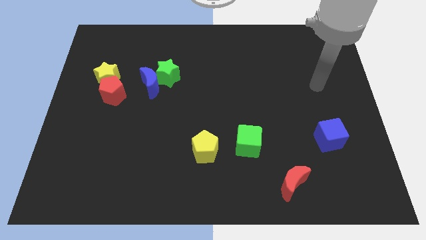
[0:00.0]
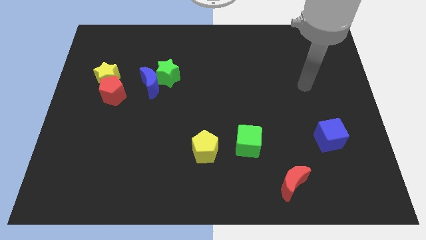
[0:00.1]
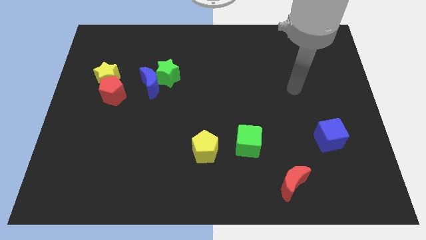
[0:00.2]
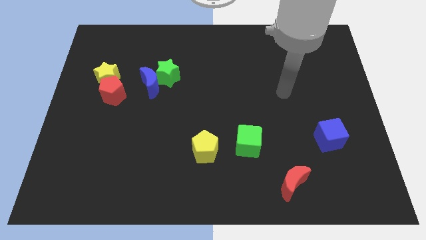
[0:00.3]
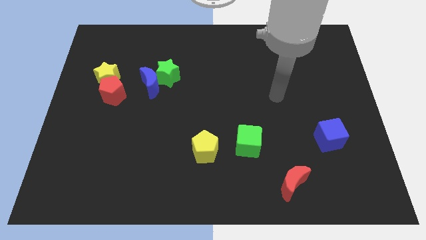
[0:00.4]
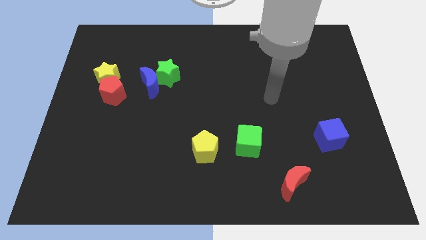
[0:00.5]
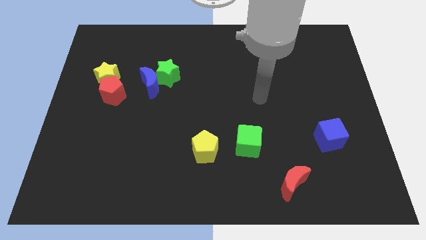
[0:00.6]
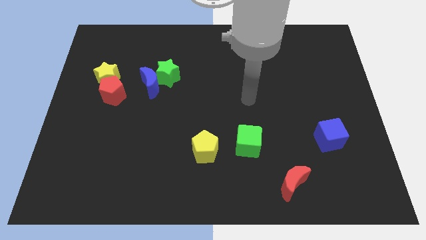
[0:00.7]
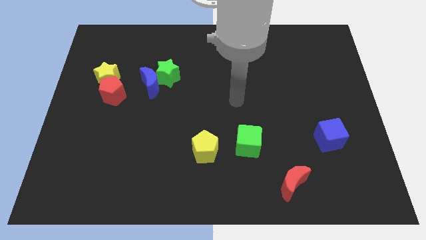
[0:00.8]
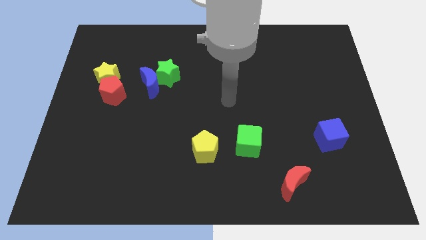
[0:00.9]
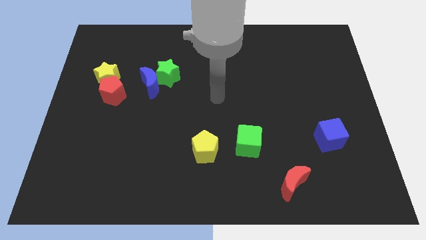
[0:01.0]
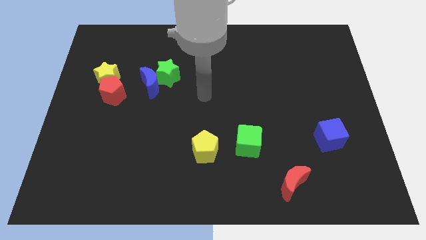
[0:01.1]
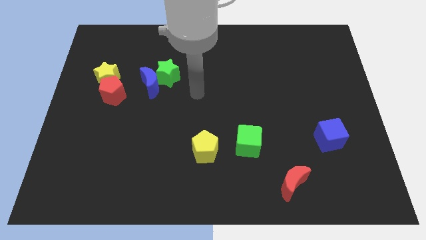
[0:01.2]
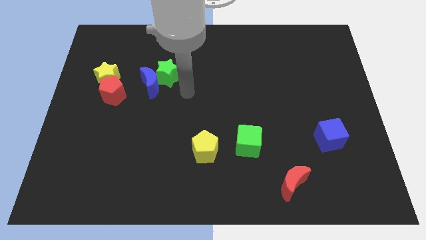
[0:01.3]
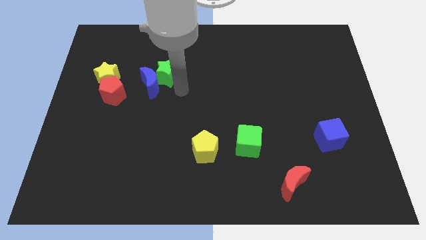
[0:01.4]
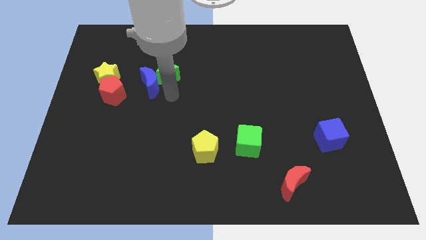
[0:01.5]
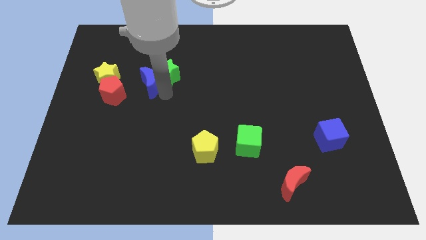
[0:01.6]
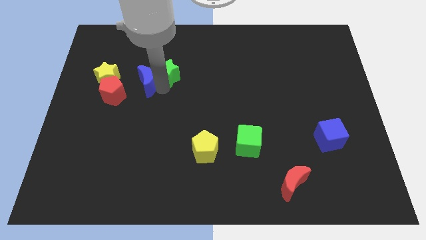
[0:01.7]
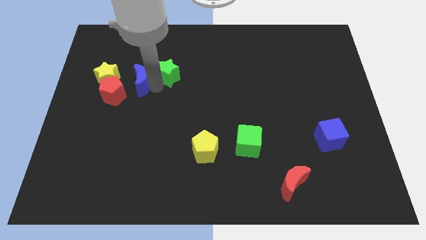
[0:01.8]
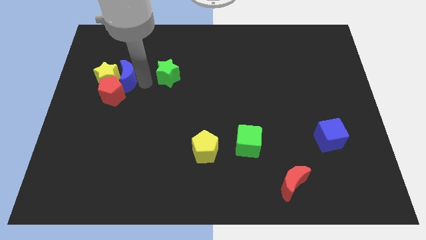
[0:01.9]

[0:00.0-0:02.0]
move the green star away from the blue moon

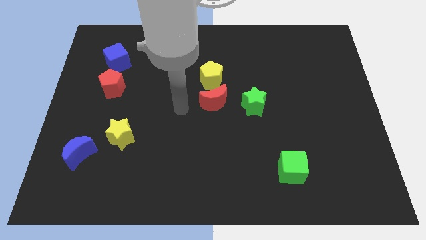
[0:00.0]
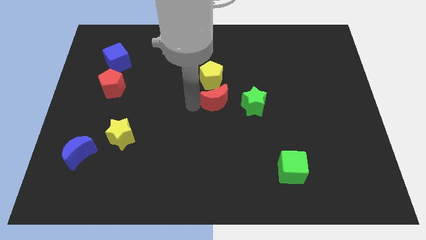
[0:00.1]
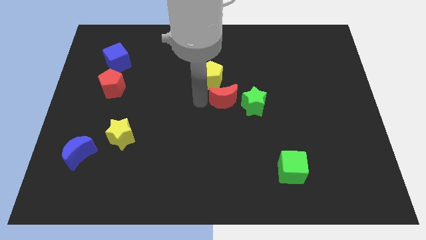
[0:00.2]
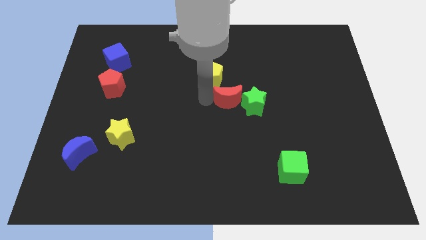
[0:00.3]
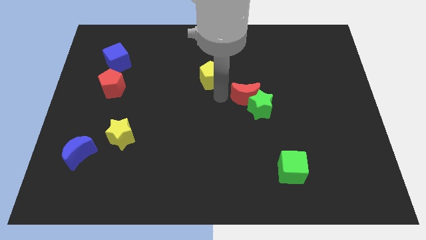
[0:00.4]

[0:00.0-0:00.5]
separate the yellow pentagon from the red moon

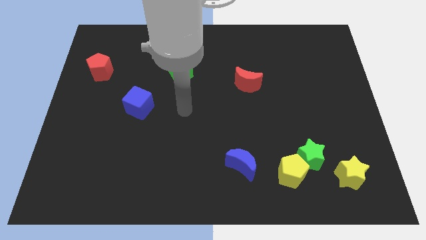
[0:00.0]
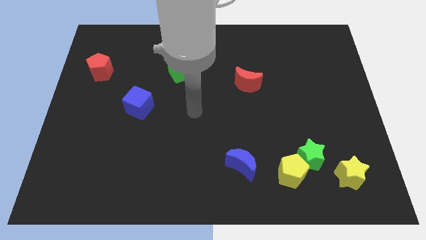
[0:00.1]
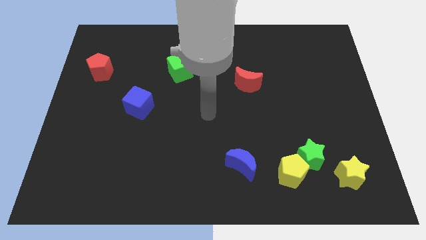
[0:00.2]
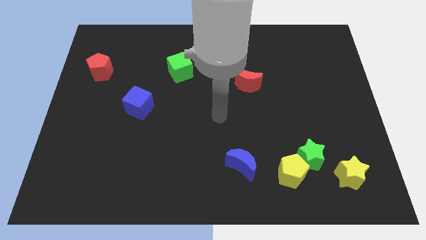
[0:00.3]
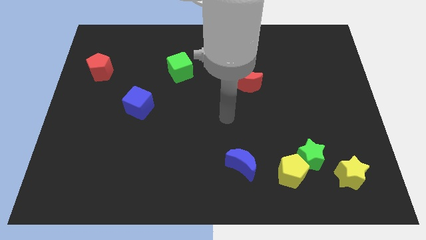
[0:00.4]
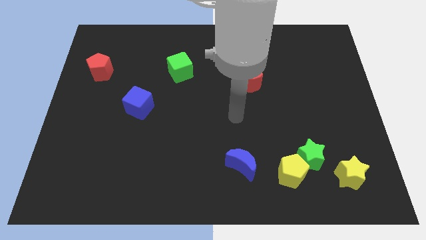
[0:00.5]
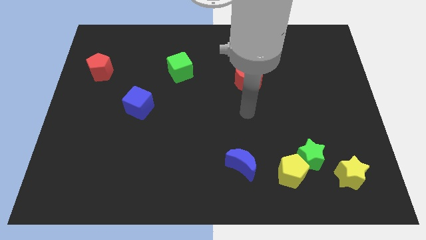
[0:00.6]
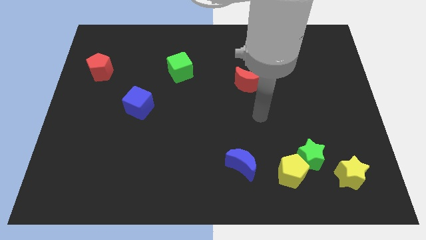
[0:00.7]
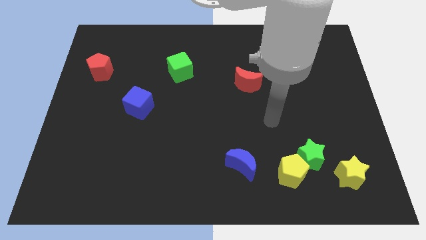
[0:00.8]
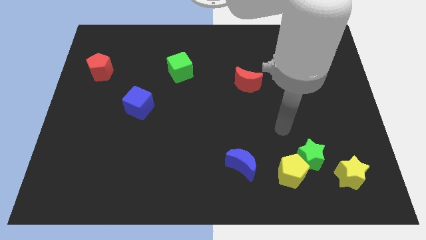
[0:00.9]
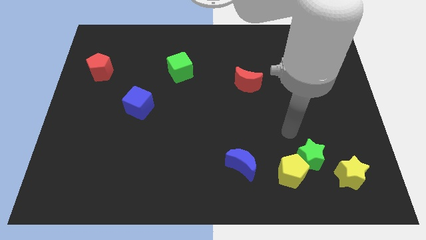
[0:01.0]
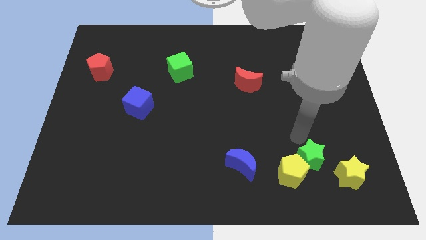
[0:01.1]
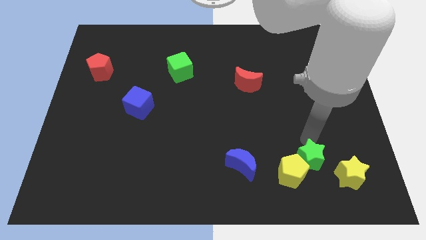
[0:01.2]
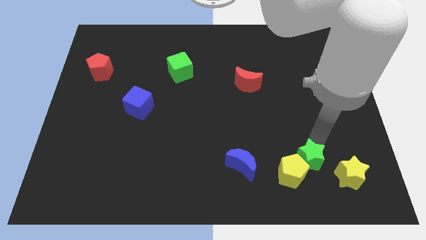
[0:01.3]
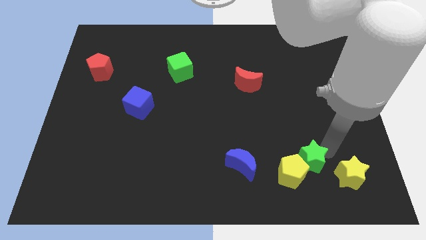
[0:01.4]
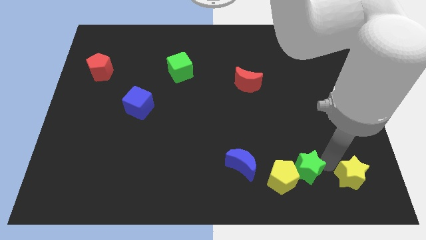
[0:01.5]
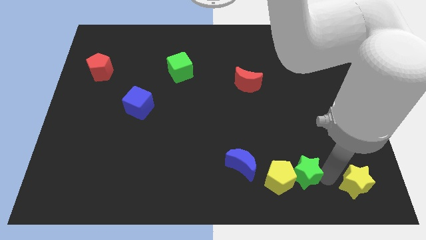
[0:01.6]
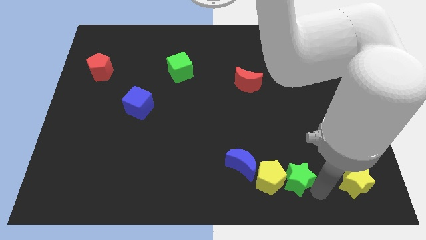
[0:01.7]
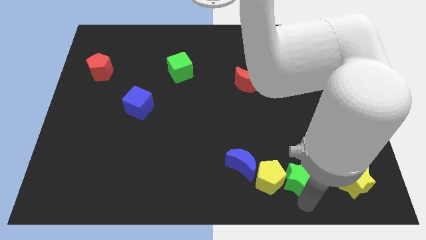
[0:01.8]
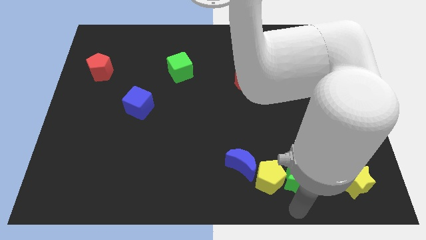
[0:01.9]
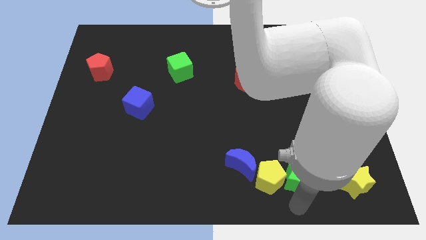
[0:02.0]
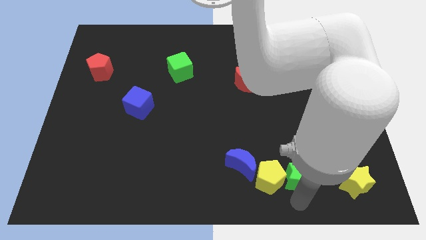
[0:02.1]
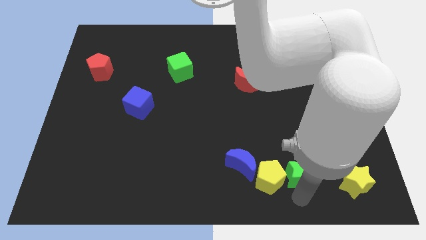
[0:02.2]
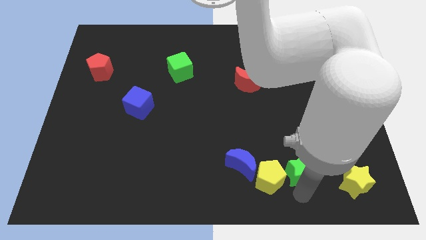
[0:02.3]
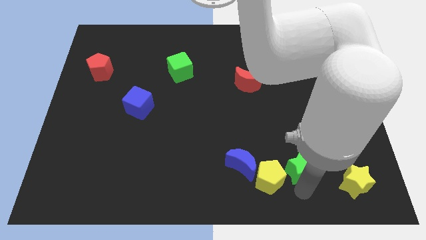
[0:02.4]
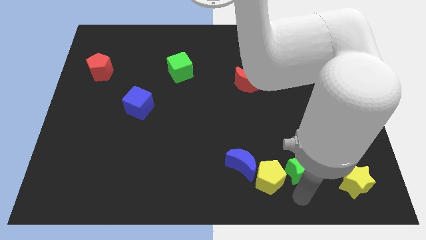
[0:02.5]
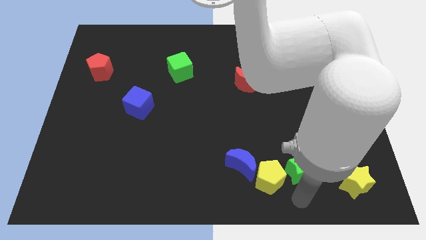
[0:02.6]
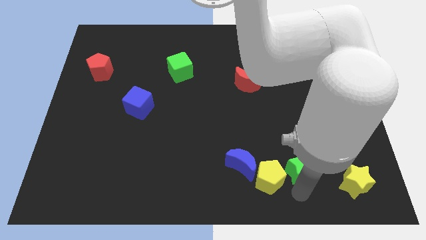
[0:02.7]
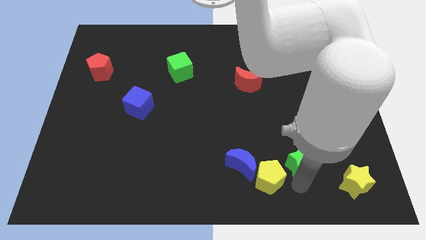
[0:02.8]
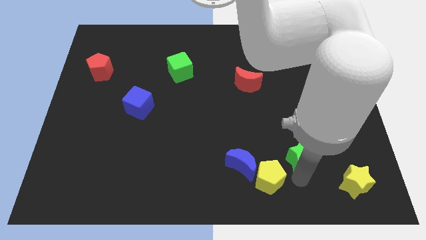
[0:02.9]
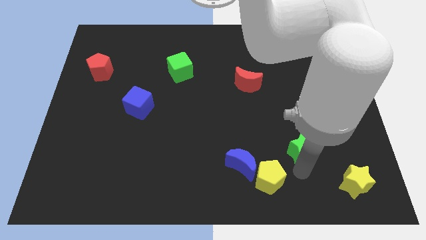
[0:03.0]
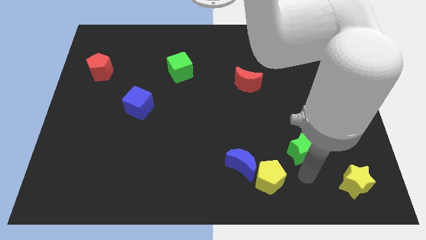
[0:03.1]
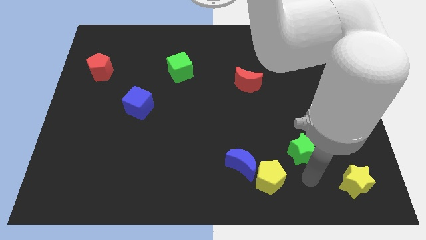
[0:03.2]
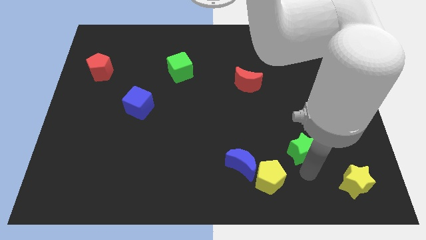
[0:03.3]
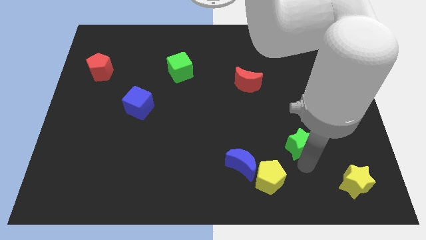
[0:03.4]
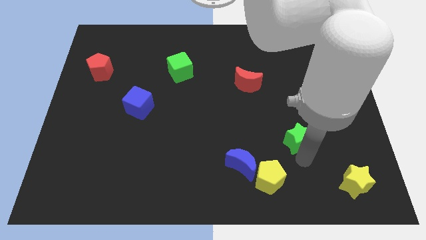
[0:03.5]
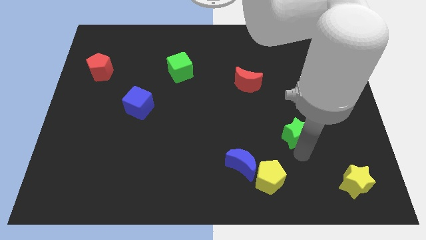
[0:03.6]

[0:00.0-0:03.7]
pull the green star apart from the yellow pentagon and yellow star

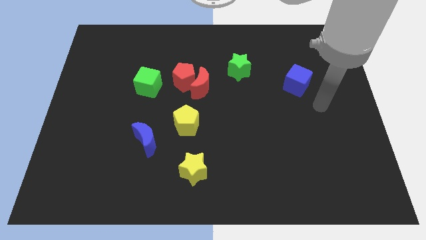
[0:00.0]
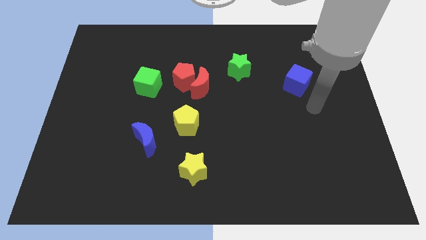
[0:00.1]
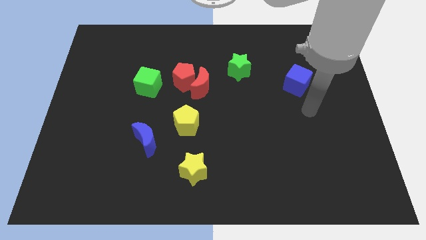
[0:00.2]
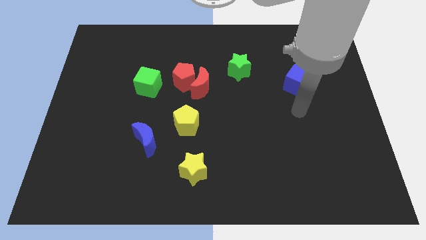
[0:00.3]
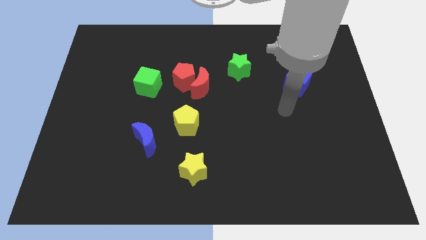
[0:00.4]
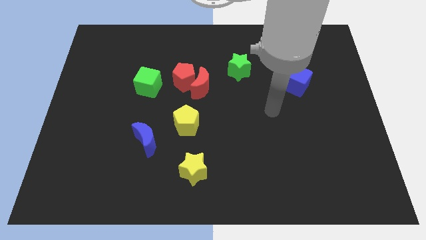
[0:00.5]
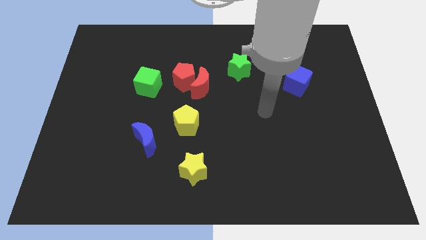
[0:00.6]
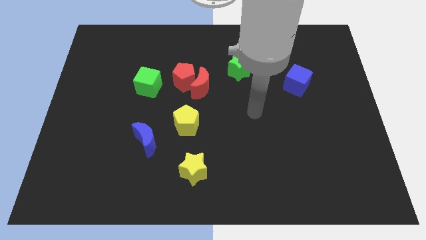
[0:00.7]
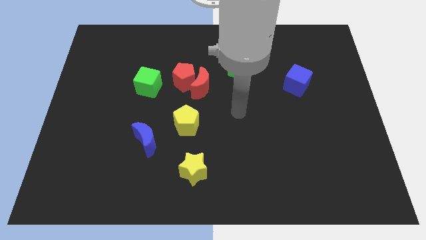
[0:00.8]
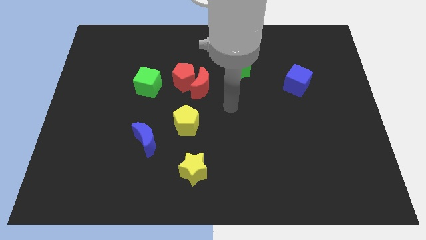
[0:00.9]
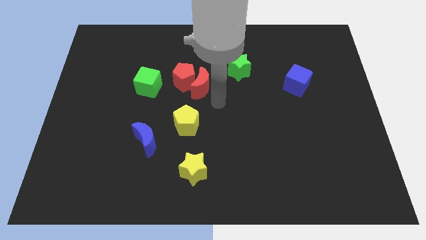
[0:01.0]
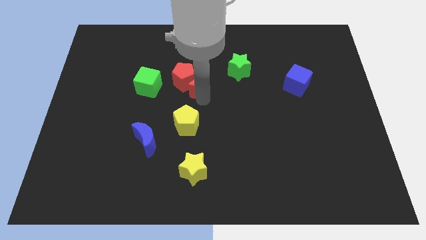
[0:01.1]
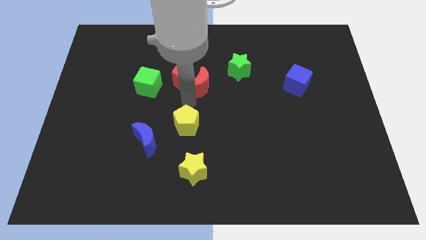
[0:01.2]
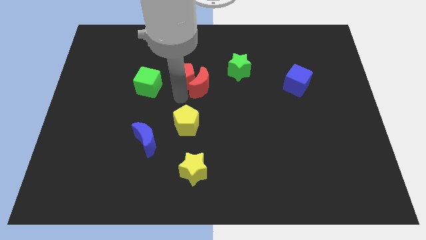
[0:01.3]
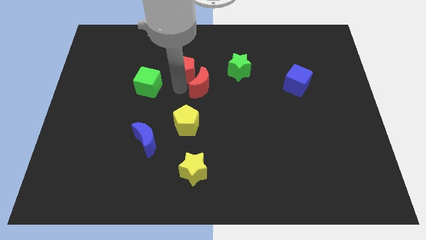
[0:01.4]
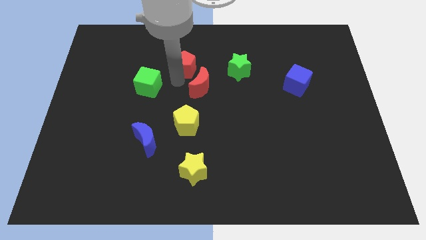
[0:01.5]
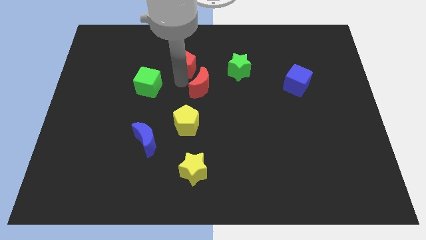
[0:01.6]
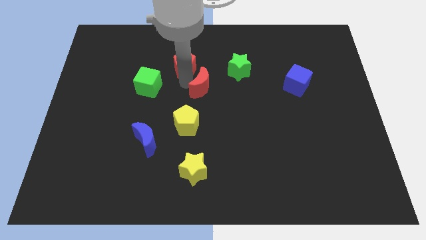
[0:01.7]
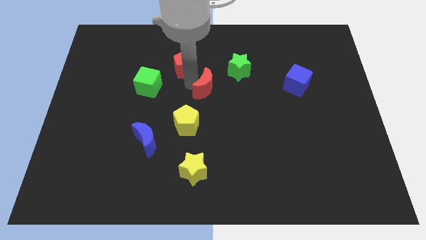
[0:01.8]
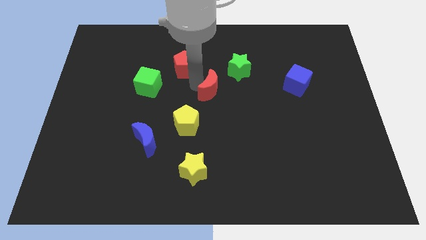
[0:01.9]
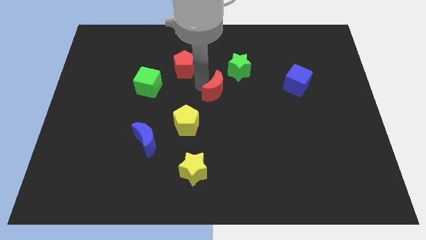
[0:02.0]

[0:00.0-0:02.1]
separate the red moon from the red pentagon

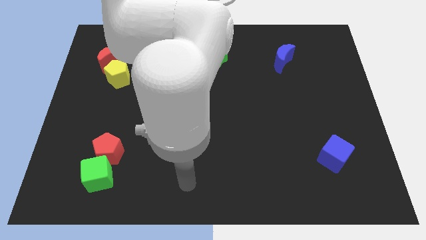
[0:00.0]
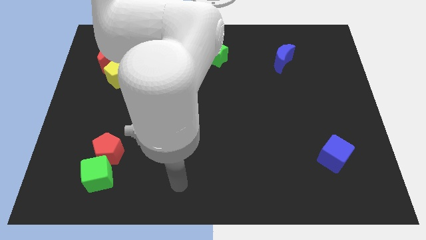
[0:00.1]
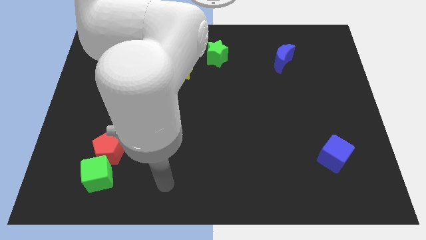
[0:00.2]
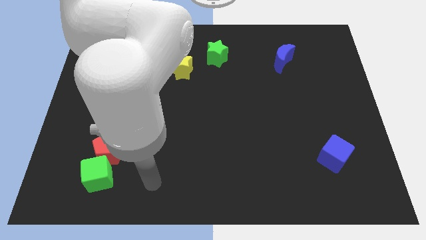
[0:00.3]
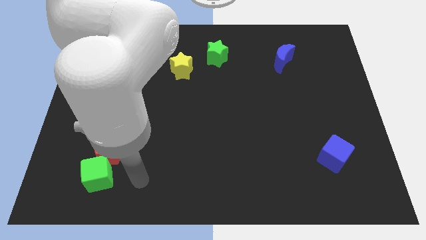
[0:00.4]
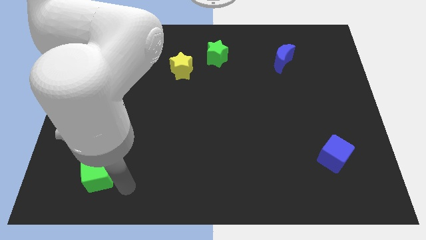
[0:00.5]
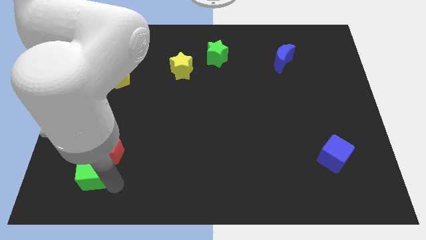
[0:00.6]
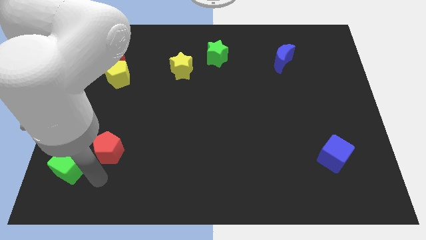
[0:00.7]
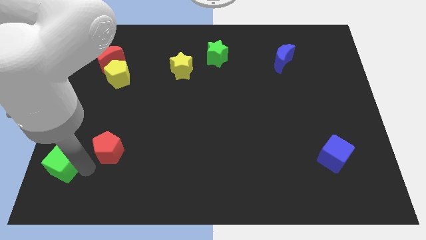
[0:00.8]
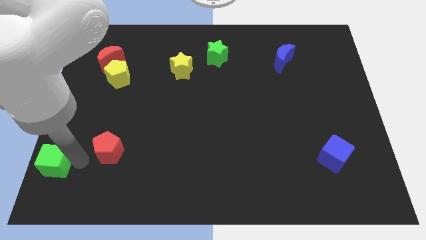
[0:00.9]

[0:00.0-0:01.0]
move the red pentagon away from the green cube

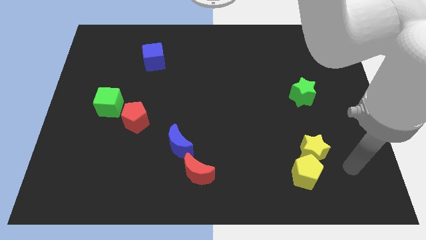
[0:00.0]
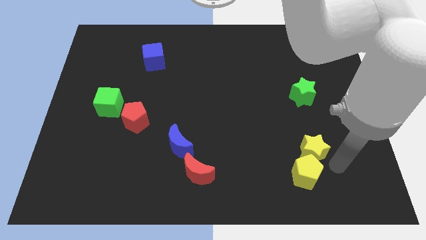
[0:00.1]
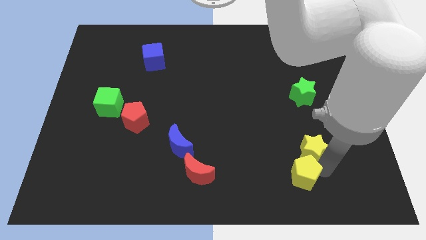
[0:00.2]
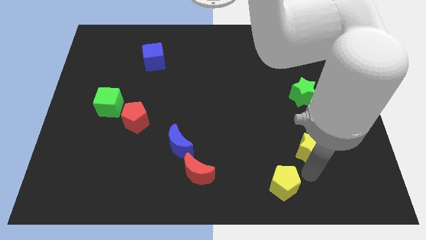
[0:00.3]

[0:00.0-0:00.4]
pull the yellow star apart from the yellow pentagon
